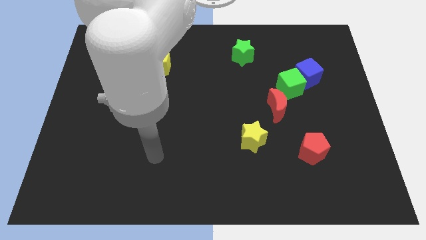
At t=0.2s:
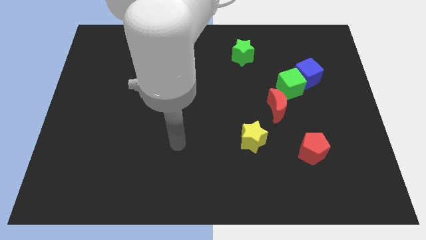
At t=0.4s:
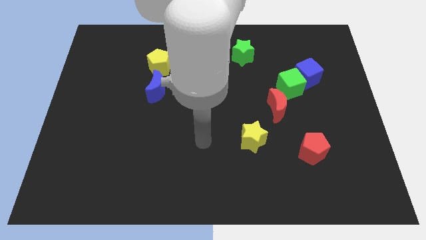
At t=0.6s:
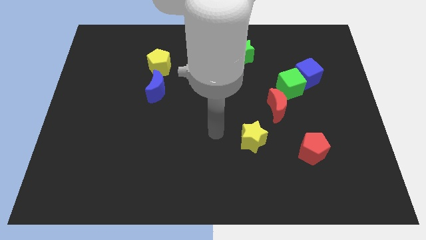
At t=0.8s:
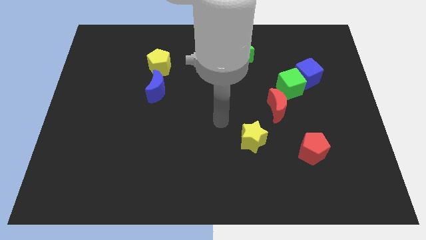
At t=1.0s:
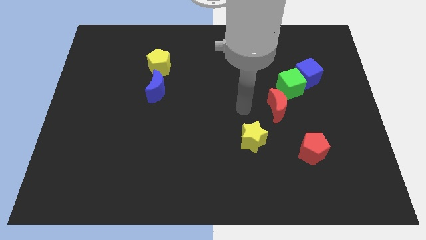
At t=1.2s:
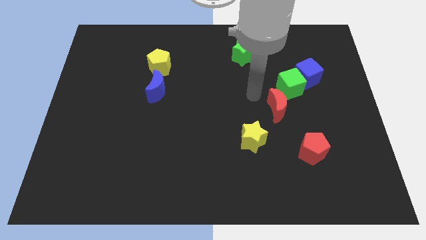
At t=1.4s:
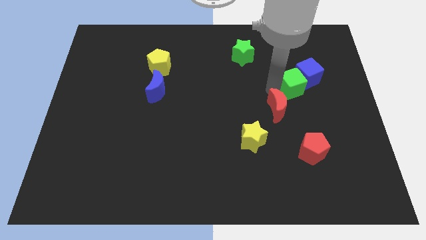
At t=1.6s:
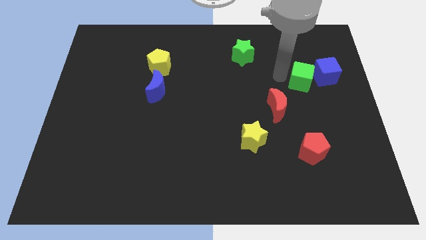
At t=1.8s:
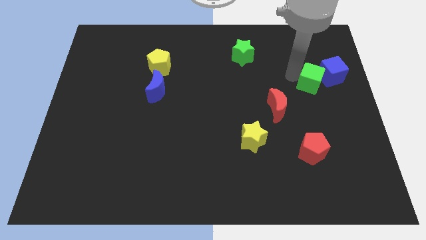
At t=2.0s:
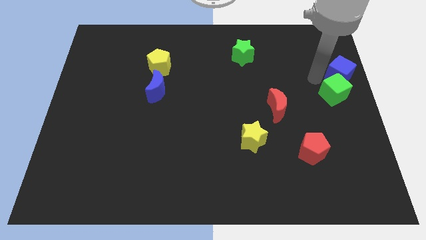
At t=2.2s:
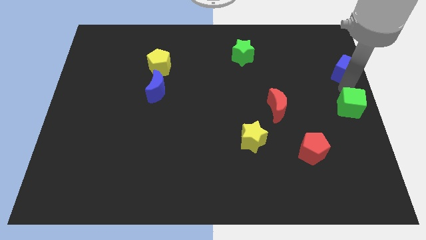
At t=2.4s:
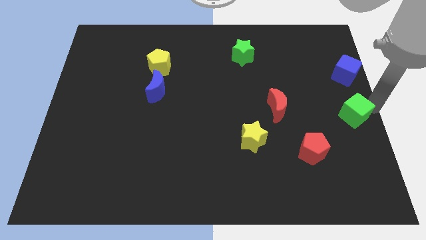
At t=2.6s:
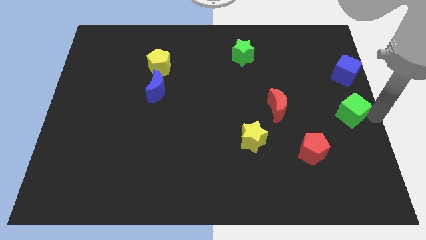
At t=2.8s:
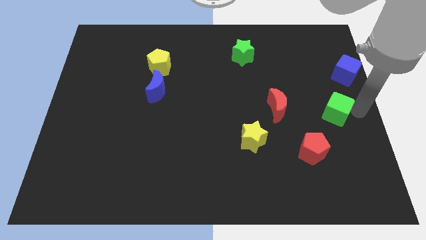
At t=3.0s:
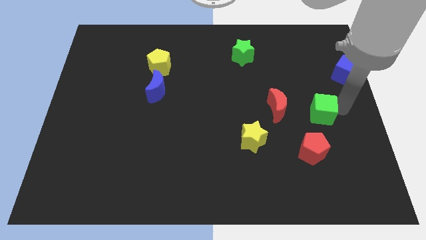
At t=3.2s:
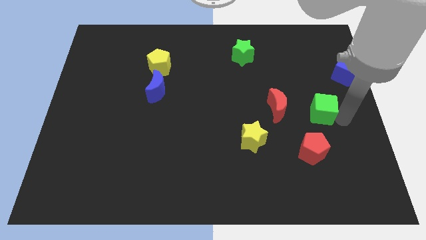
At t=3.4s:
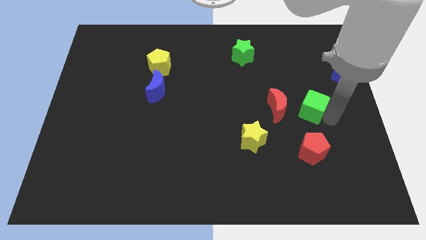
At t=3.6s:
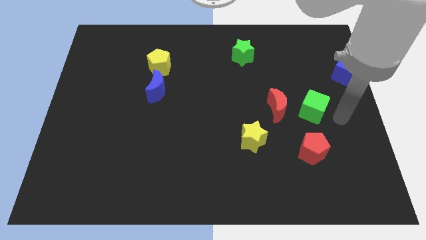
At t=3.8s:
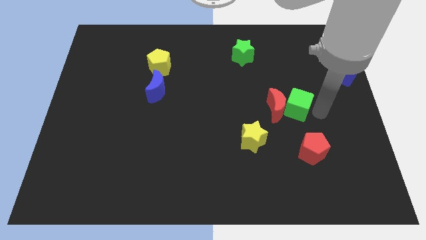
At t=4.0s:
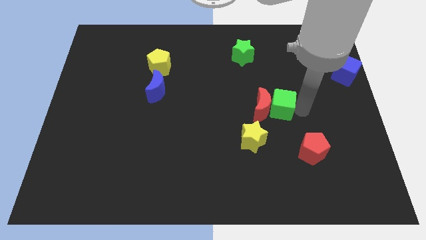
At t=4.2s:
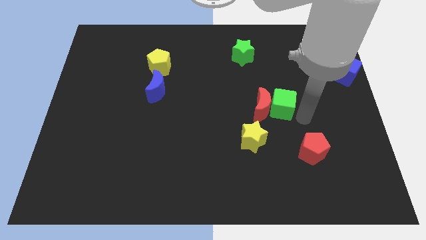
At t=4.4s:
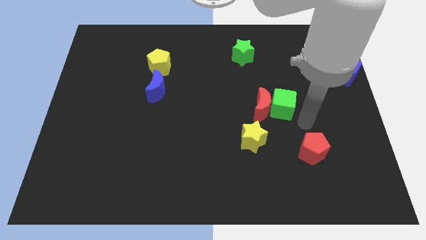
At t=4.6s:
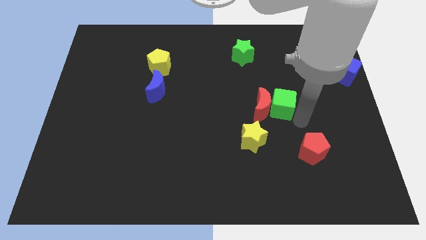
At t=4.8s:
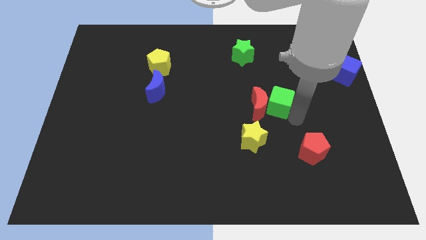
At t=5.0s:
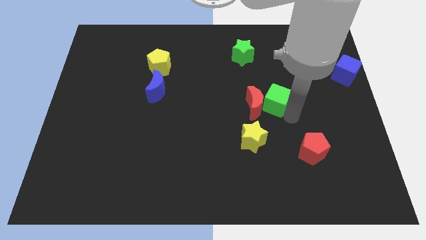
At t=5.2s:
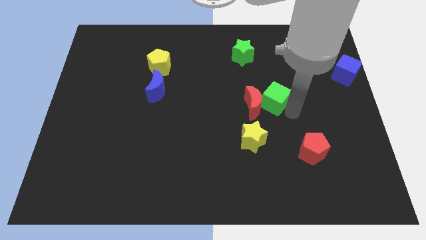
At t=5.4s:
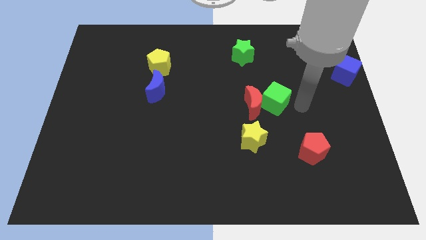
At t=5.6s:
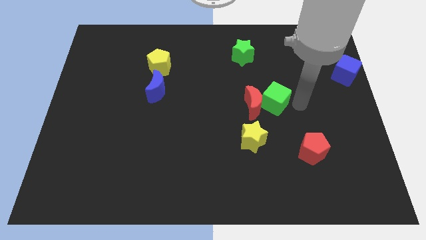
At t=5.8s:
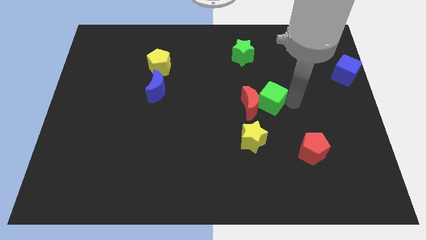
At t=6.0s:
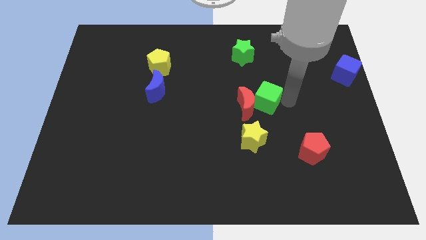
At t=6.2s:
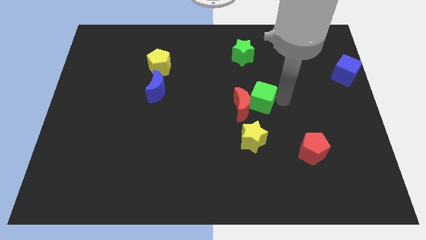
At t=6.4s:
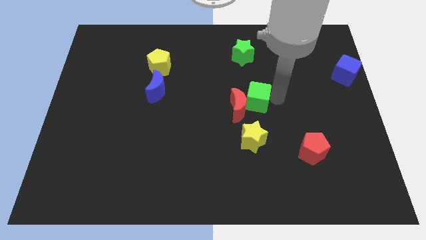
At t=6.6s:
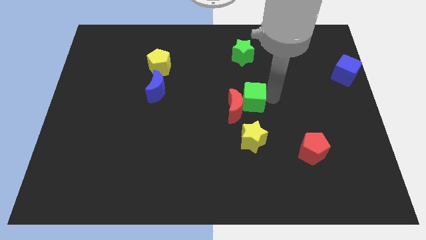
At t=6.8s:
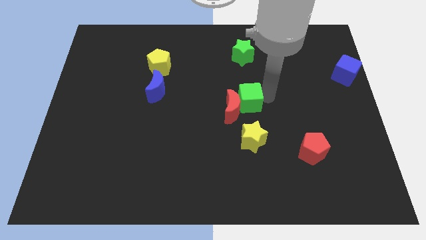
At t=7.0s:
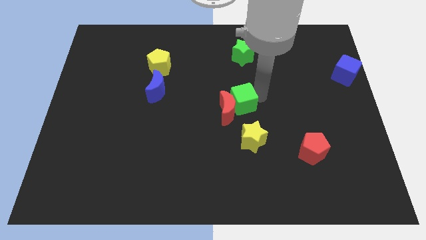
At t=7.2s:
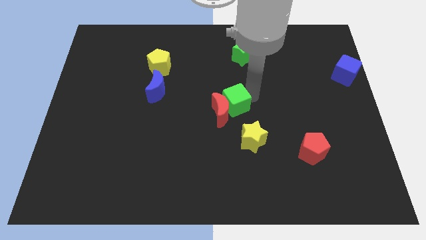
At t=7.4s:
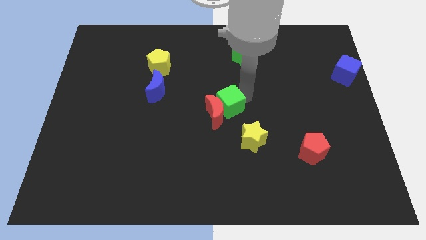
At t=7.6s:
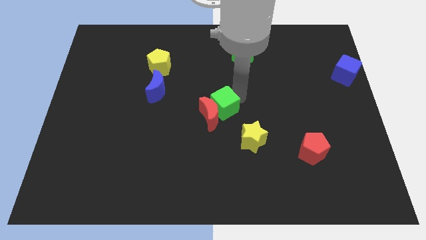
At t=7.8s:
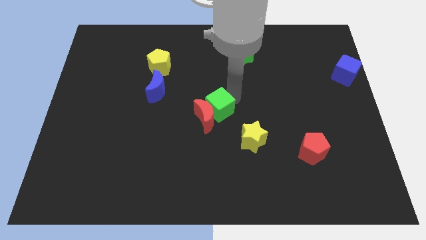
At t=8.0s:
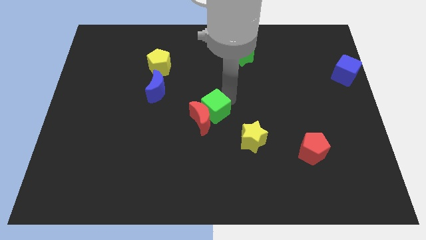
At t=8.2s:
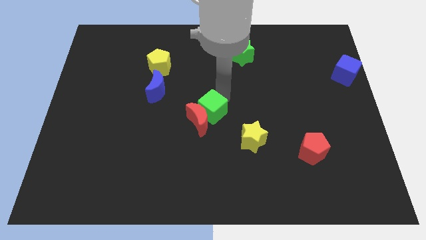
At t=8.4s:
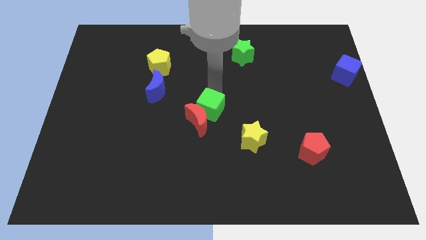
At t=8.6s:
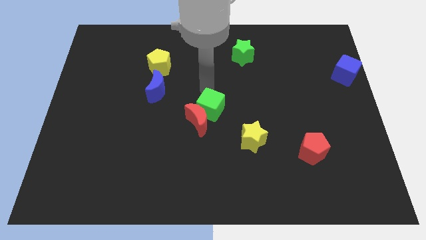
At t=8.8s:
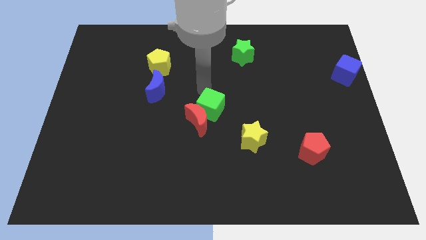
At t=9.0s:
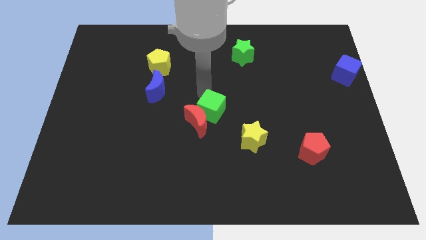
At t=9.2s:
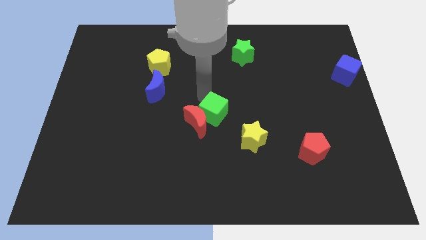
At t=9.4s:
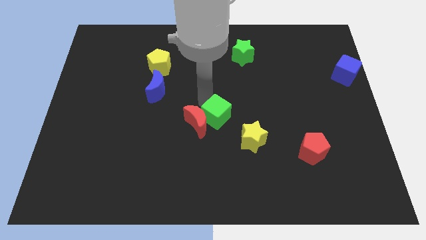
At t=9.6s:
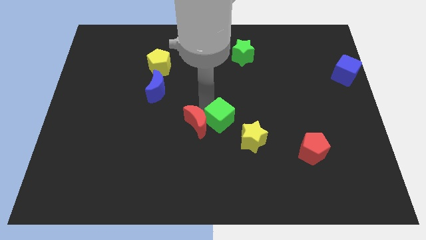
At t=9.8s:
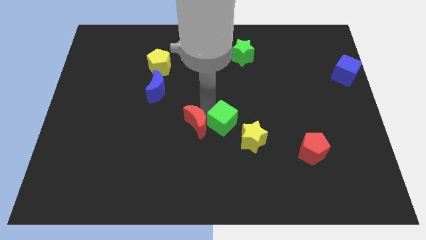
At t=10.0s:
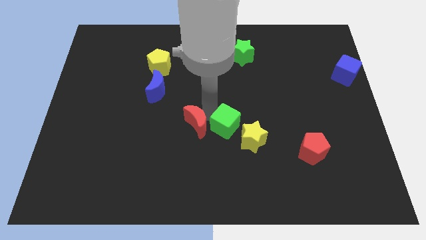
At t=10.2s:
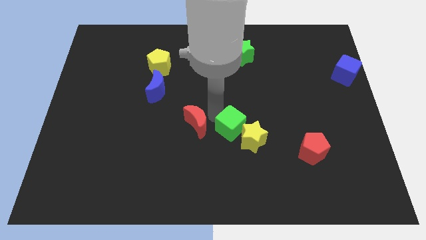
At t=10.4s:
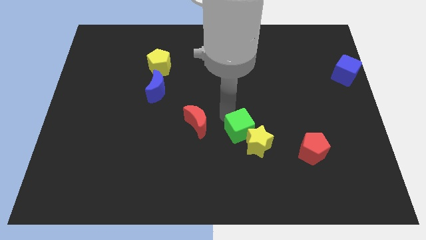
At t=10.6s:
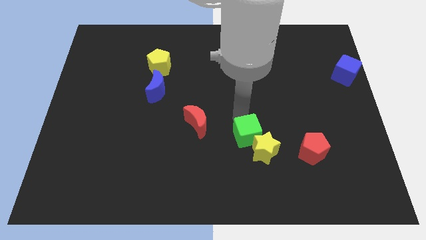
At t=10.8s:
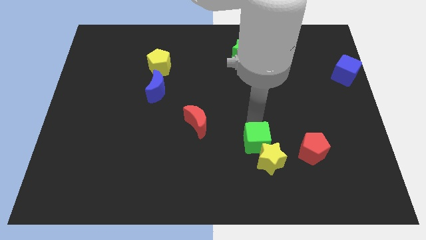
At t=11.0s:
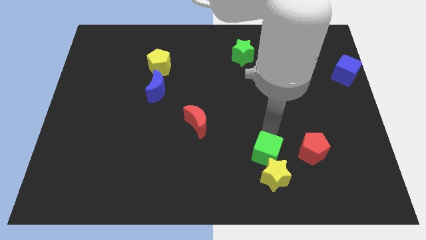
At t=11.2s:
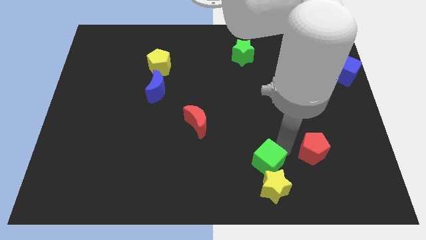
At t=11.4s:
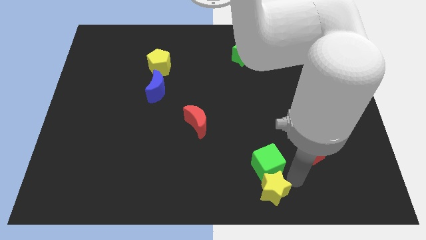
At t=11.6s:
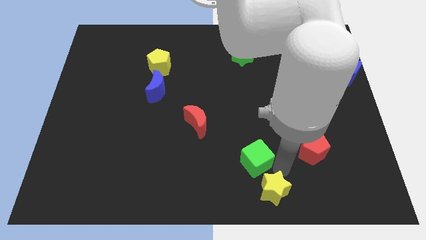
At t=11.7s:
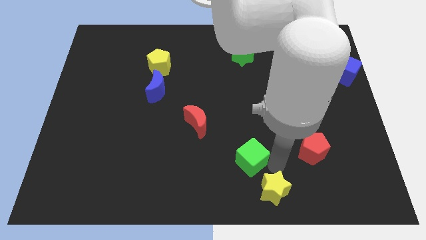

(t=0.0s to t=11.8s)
push the green cube down and then to the left

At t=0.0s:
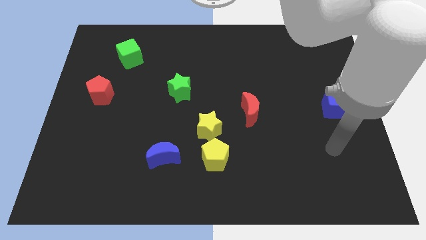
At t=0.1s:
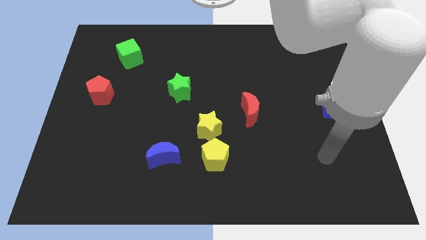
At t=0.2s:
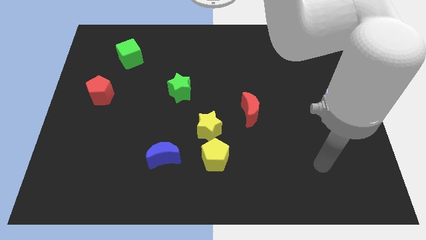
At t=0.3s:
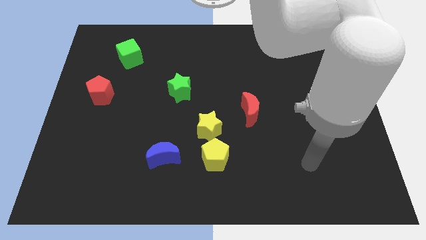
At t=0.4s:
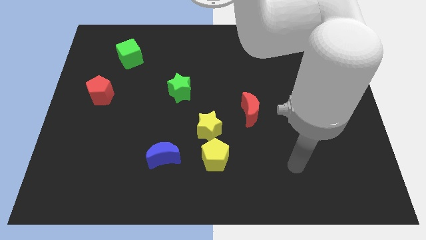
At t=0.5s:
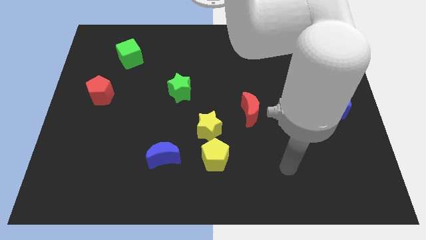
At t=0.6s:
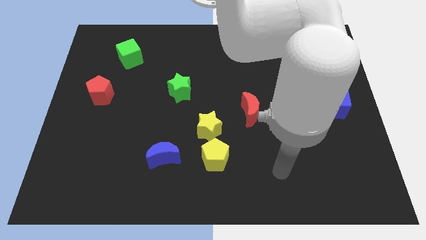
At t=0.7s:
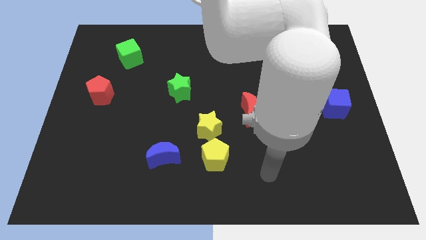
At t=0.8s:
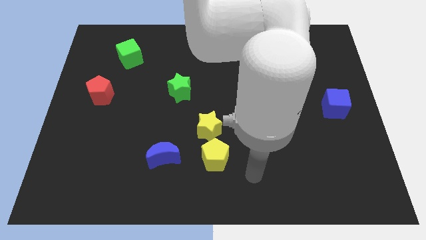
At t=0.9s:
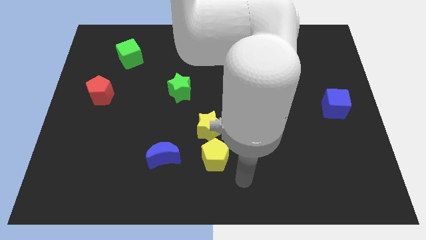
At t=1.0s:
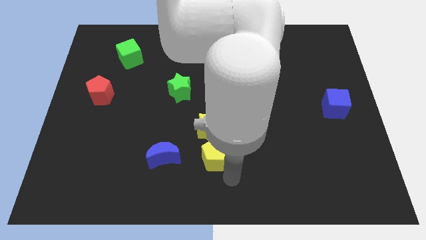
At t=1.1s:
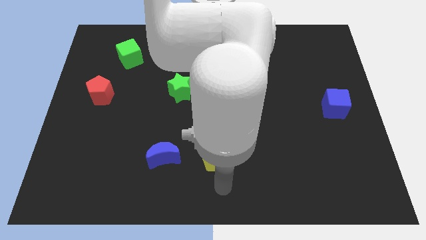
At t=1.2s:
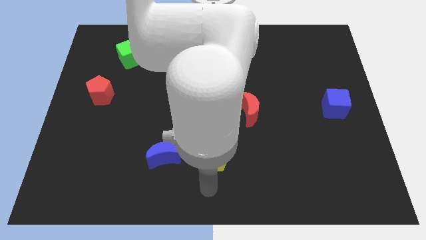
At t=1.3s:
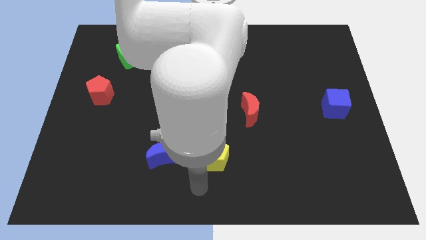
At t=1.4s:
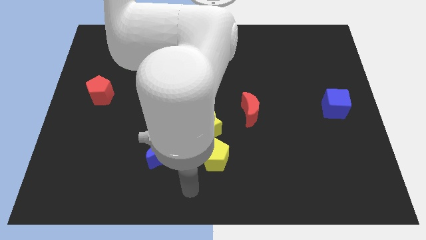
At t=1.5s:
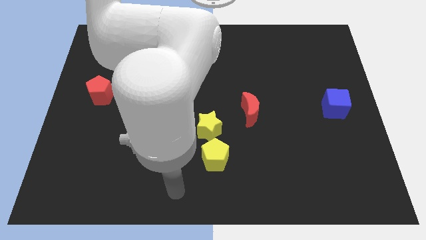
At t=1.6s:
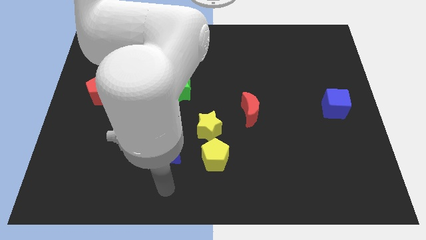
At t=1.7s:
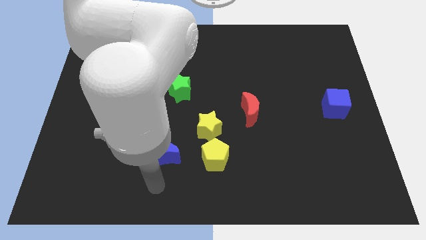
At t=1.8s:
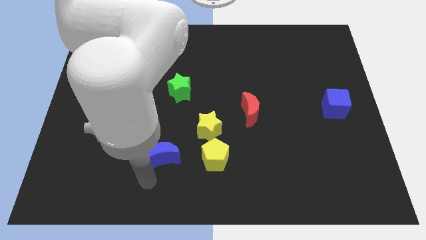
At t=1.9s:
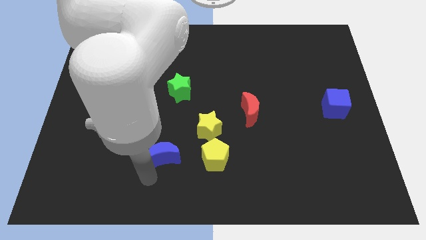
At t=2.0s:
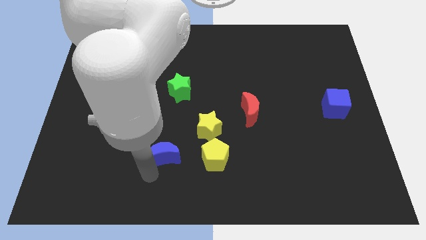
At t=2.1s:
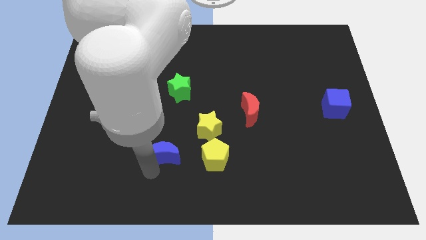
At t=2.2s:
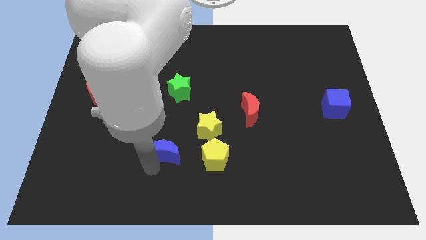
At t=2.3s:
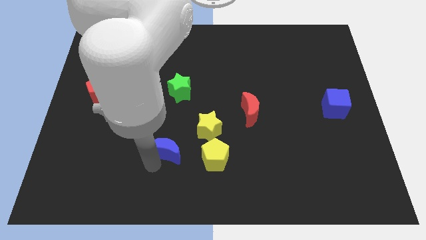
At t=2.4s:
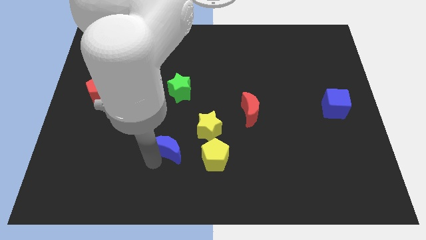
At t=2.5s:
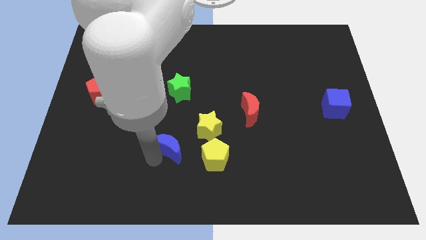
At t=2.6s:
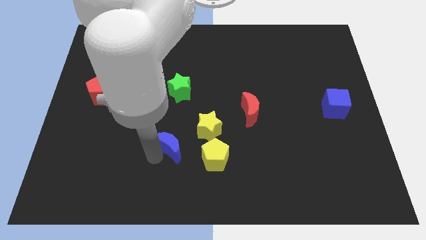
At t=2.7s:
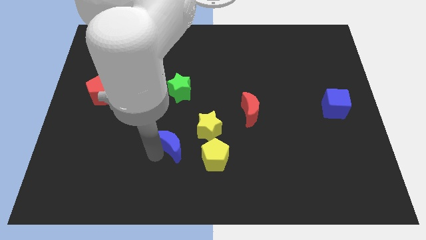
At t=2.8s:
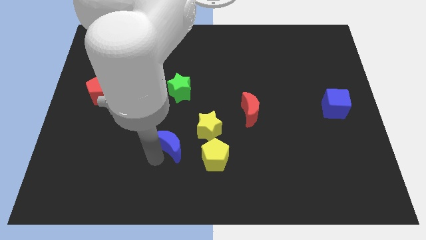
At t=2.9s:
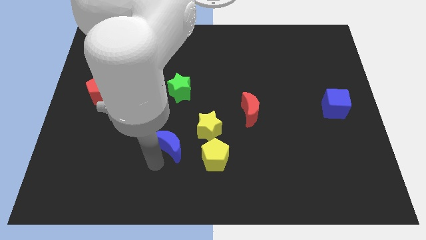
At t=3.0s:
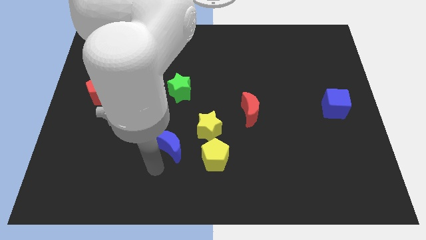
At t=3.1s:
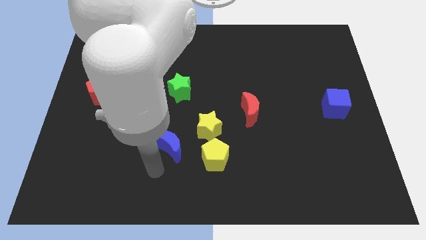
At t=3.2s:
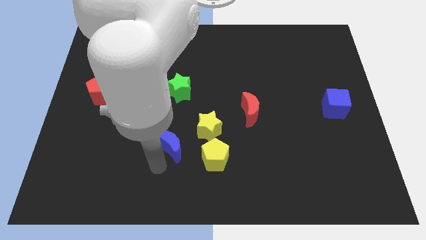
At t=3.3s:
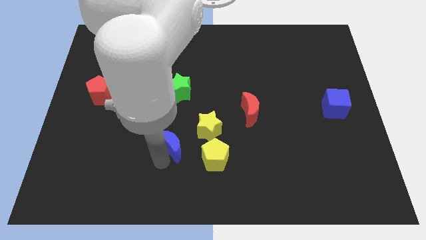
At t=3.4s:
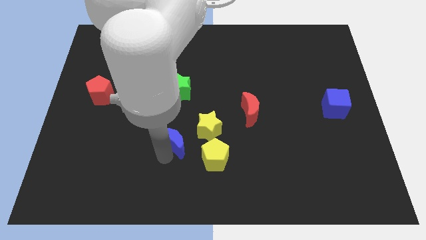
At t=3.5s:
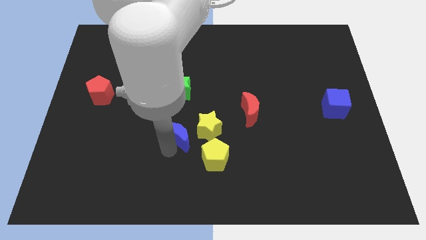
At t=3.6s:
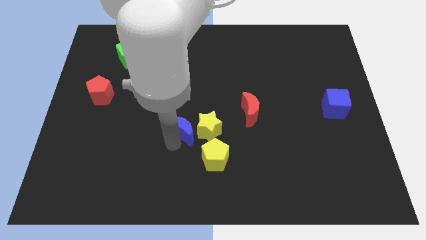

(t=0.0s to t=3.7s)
move the blue moon somewhat upwards and right
